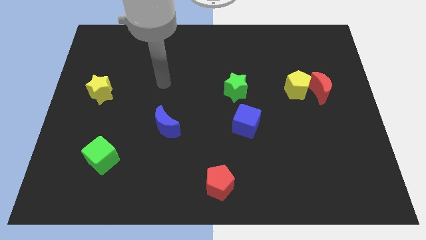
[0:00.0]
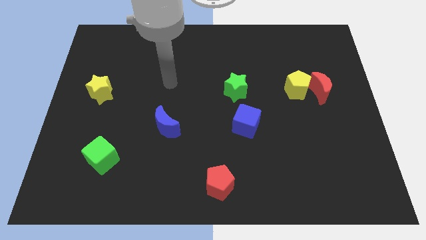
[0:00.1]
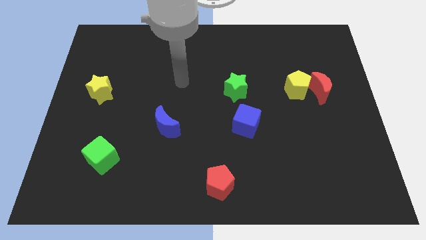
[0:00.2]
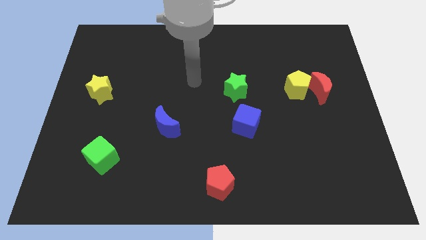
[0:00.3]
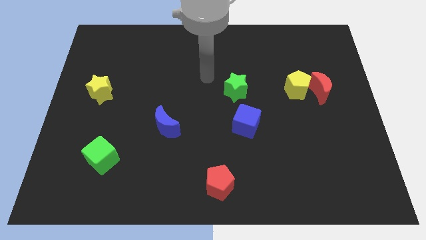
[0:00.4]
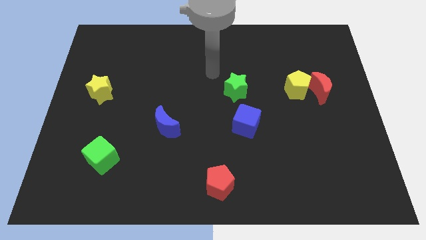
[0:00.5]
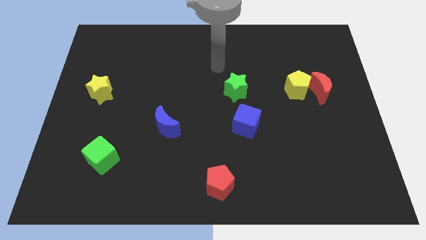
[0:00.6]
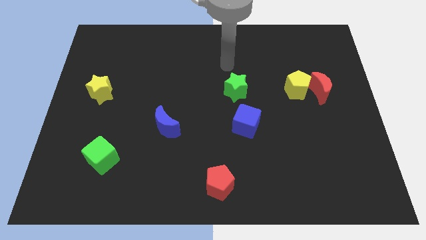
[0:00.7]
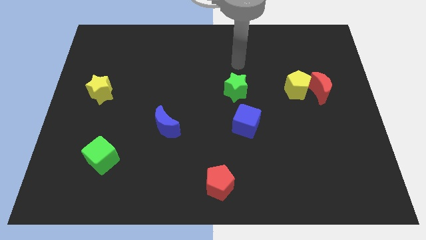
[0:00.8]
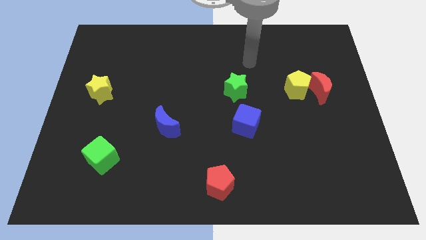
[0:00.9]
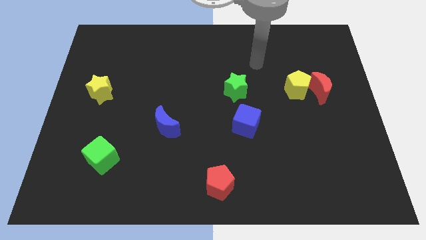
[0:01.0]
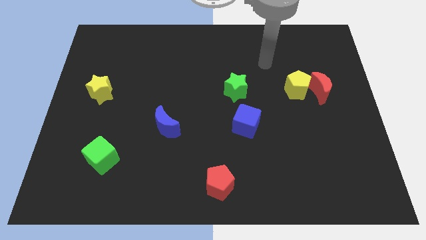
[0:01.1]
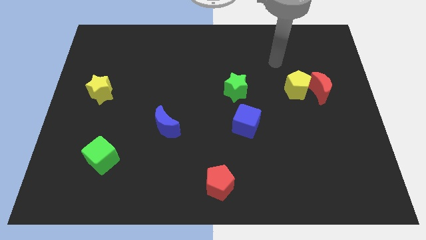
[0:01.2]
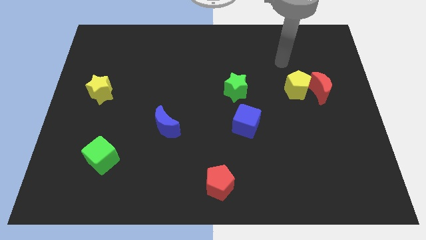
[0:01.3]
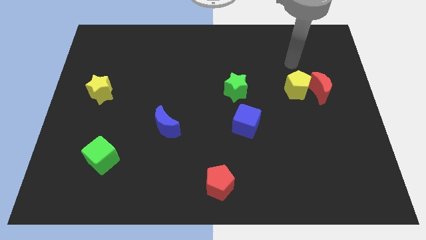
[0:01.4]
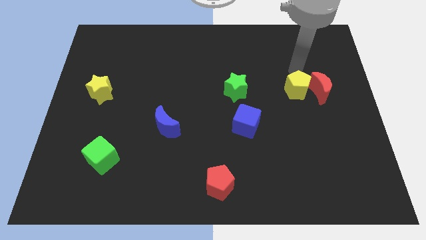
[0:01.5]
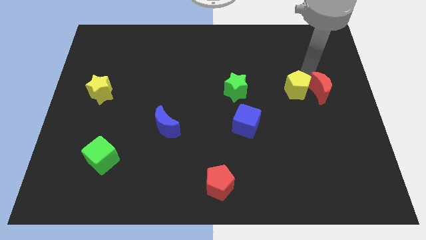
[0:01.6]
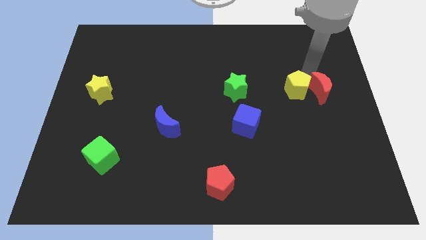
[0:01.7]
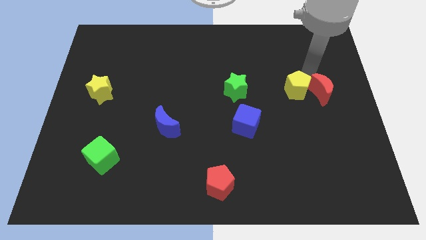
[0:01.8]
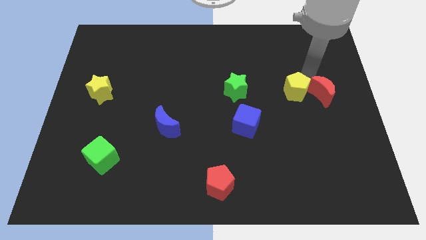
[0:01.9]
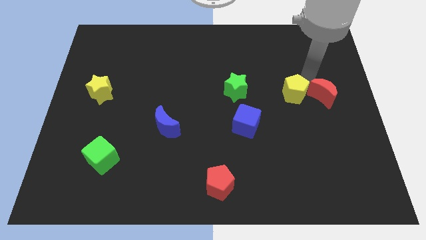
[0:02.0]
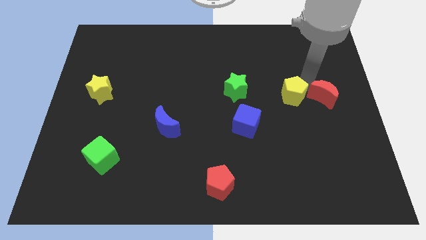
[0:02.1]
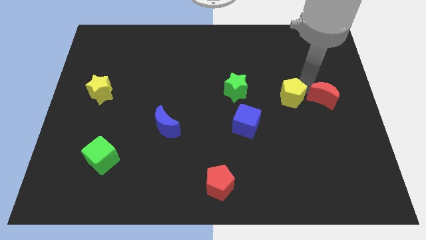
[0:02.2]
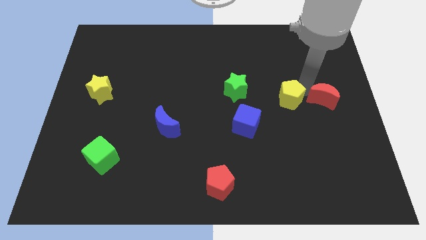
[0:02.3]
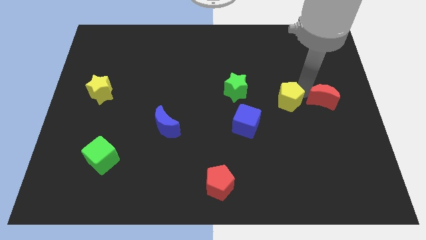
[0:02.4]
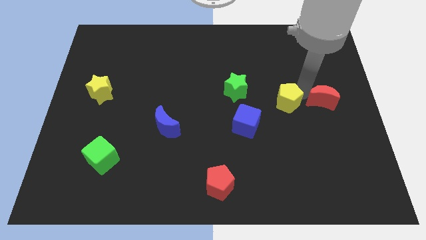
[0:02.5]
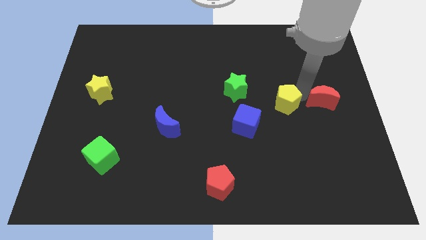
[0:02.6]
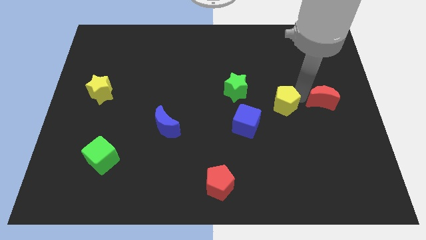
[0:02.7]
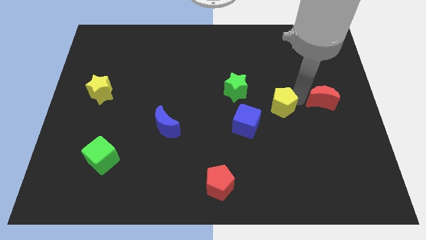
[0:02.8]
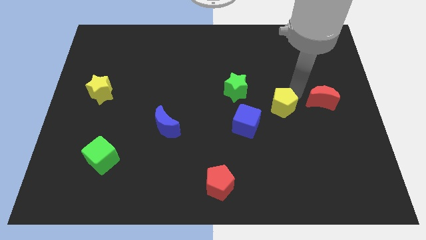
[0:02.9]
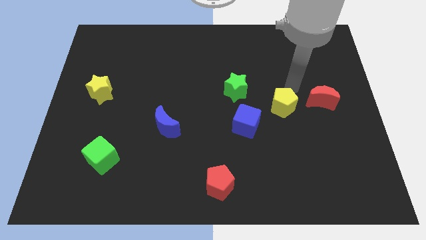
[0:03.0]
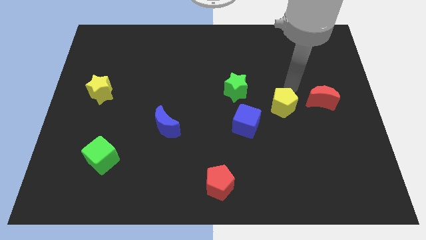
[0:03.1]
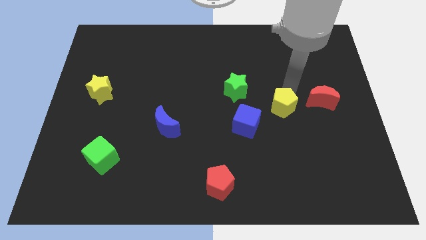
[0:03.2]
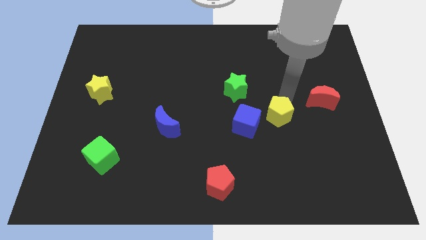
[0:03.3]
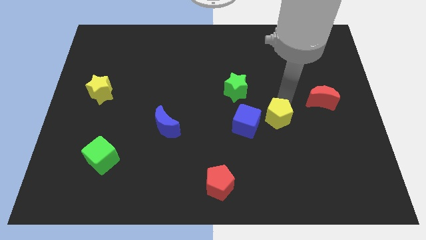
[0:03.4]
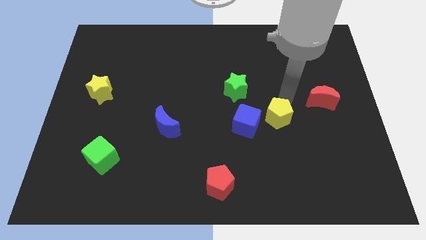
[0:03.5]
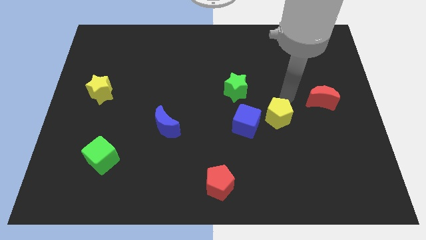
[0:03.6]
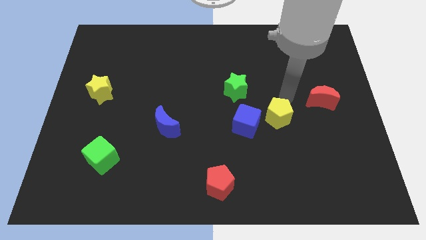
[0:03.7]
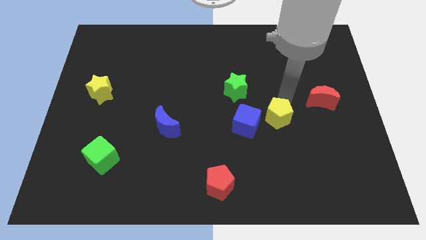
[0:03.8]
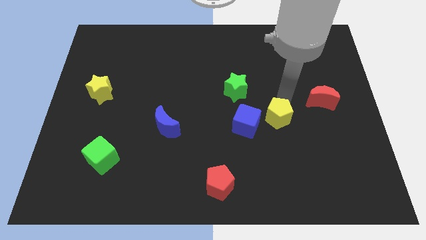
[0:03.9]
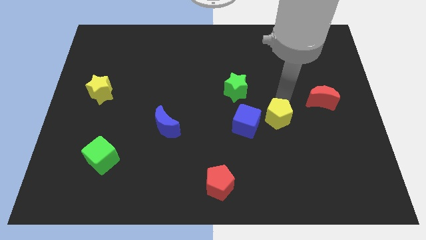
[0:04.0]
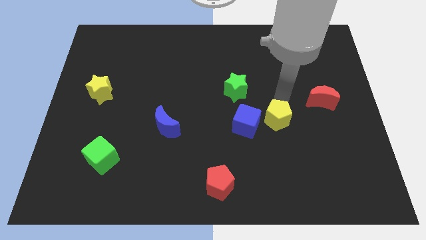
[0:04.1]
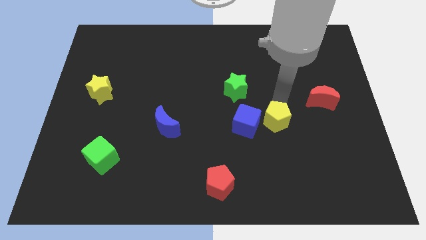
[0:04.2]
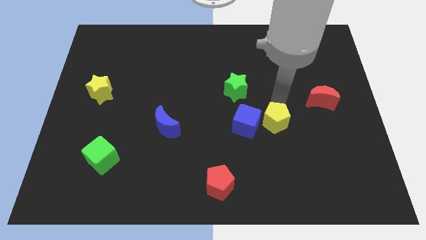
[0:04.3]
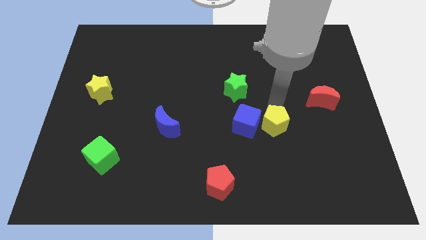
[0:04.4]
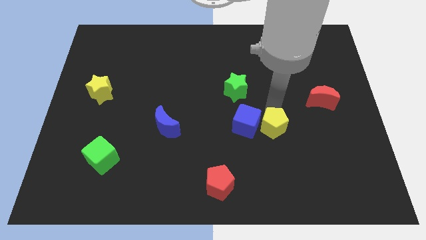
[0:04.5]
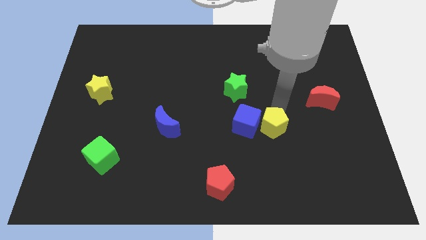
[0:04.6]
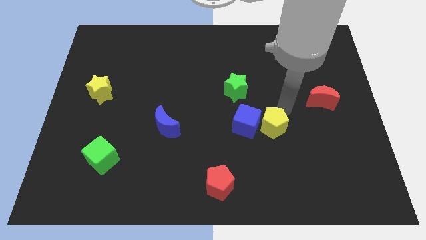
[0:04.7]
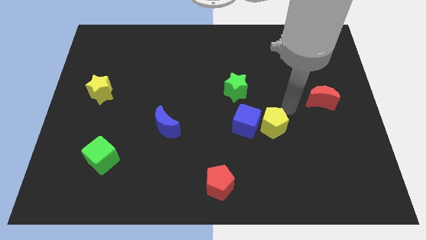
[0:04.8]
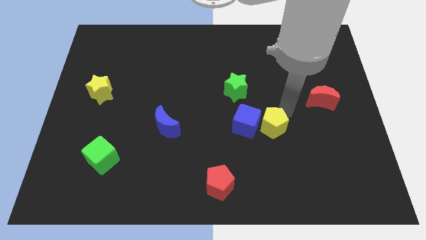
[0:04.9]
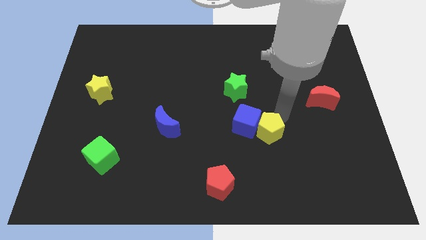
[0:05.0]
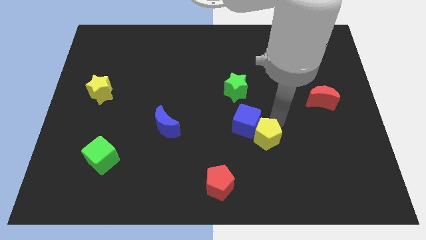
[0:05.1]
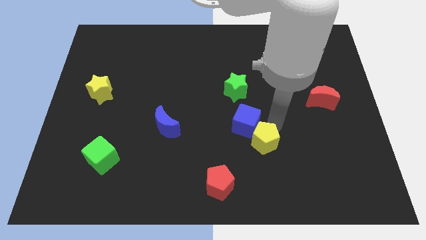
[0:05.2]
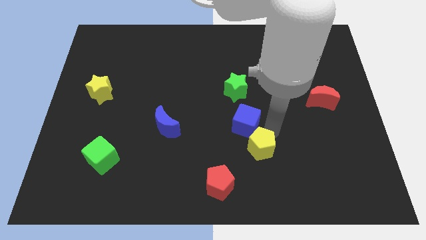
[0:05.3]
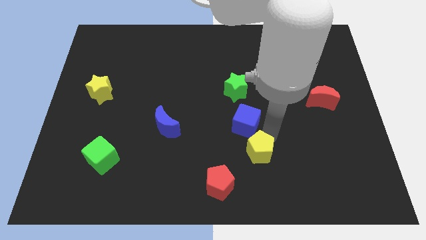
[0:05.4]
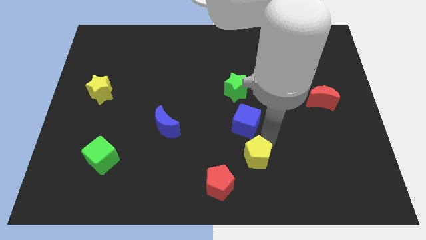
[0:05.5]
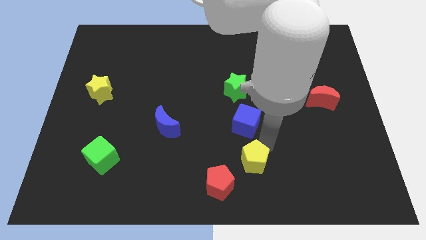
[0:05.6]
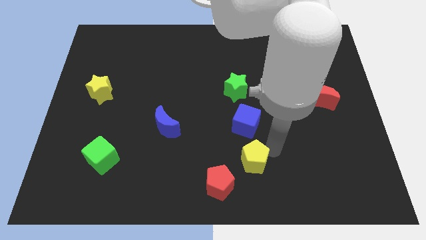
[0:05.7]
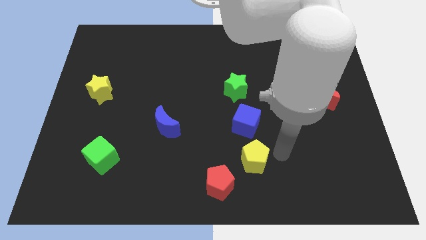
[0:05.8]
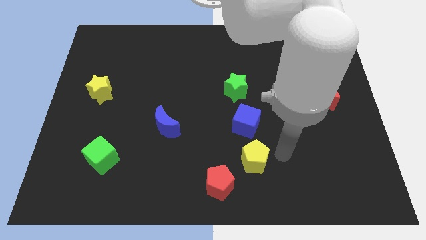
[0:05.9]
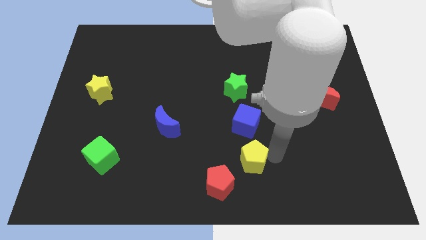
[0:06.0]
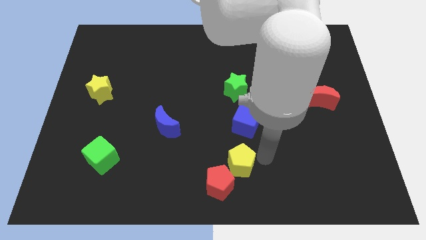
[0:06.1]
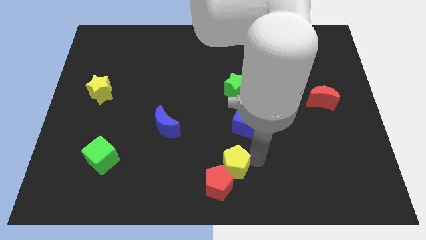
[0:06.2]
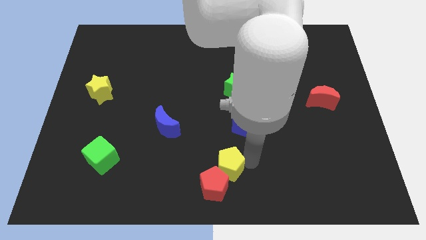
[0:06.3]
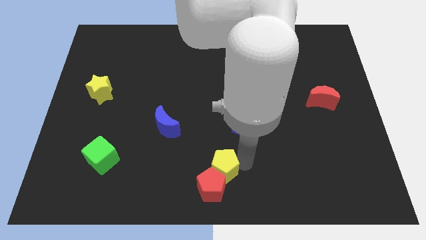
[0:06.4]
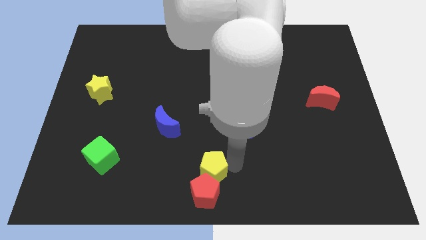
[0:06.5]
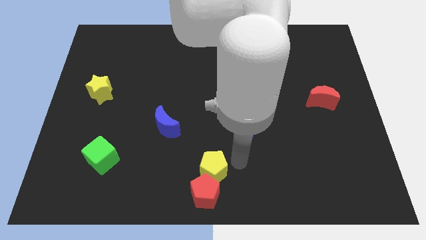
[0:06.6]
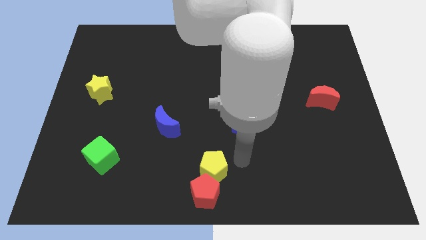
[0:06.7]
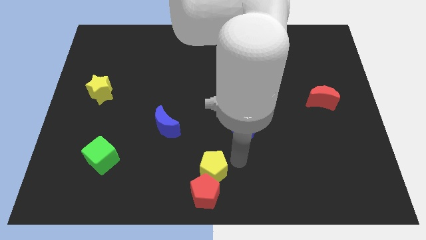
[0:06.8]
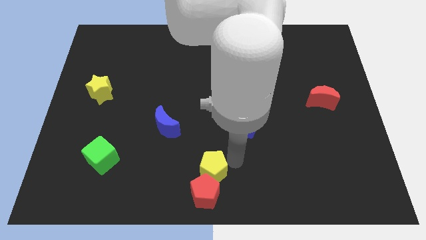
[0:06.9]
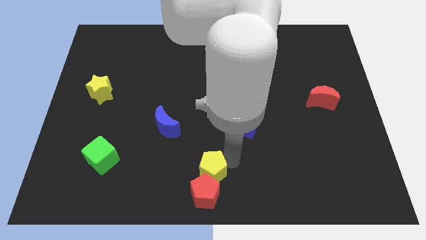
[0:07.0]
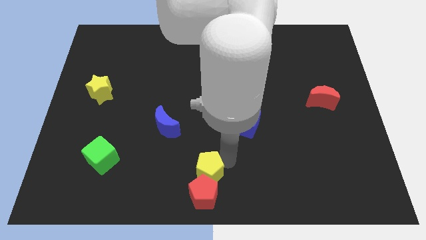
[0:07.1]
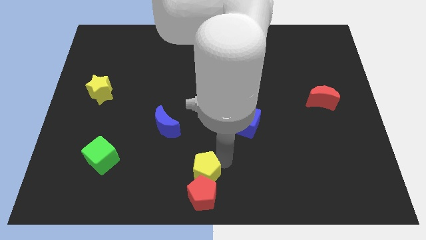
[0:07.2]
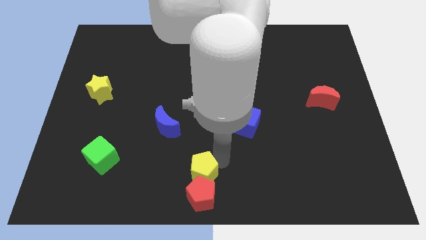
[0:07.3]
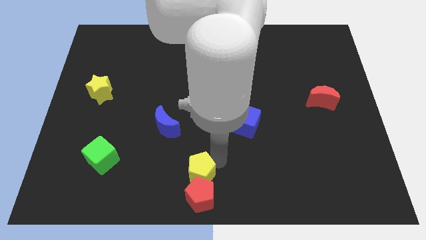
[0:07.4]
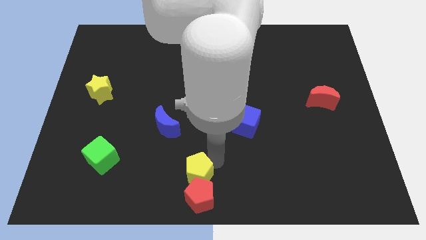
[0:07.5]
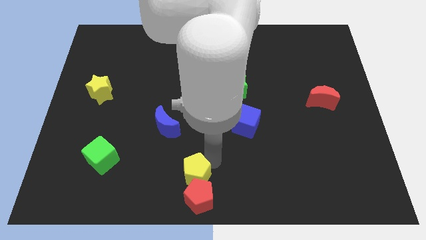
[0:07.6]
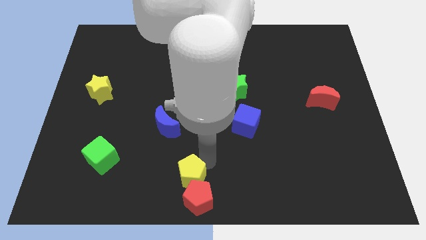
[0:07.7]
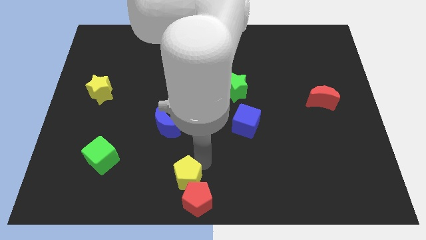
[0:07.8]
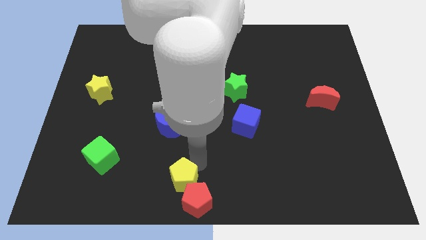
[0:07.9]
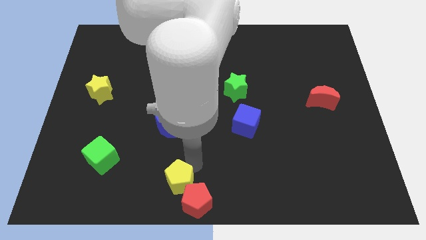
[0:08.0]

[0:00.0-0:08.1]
push the yellow pentagon to the left of the red pentagon
